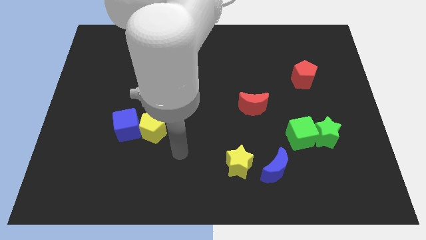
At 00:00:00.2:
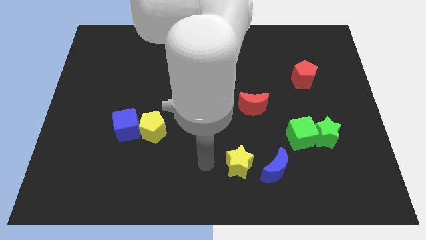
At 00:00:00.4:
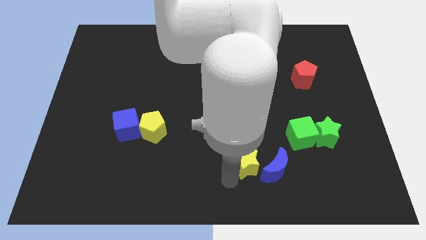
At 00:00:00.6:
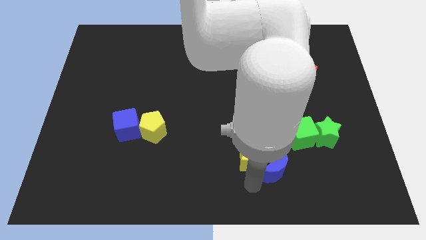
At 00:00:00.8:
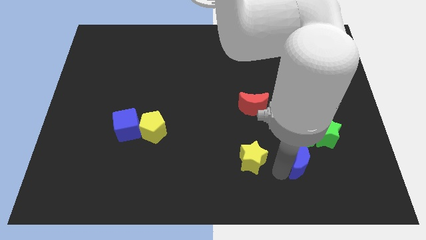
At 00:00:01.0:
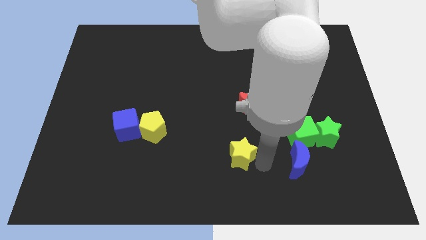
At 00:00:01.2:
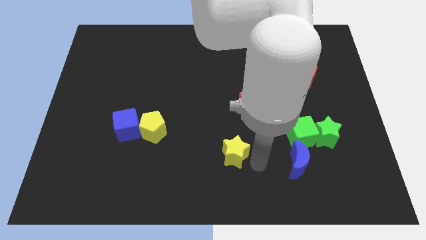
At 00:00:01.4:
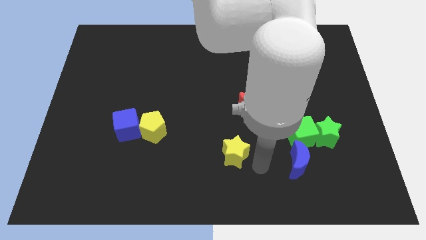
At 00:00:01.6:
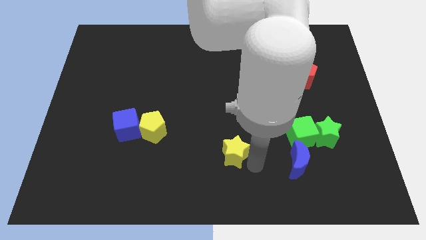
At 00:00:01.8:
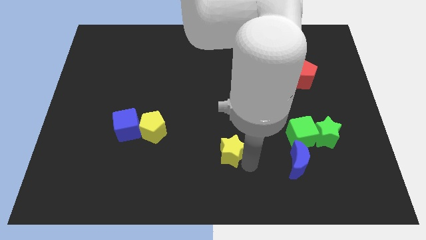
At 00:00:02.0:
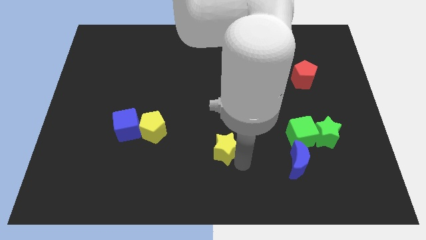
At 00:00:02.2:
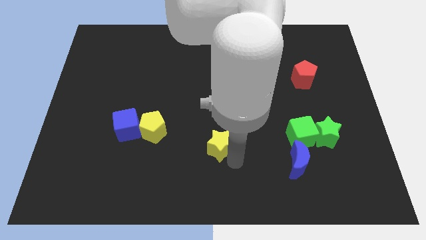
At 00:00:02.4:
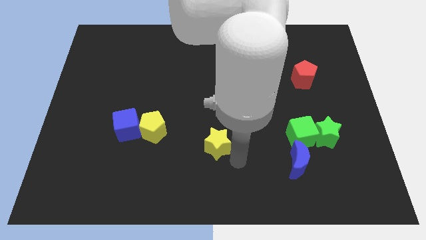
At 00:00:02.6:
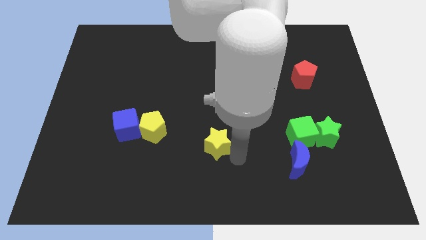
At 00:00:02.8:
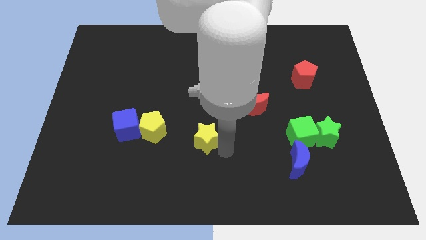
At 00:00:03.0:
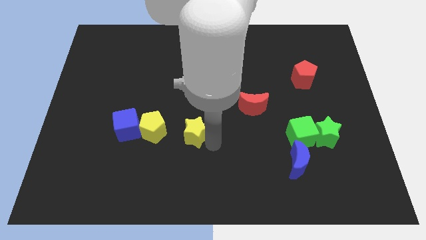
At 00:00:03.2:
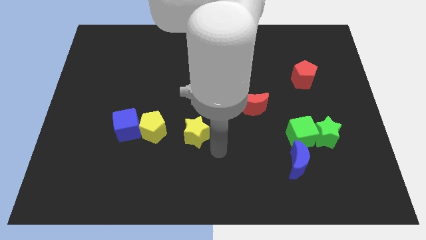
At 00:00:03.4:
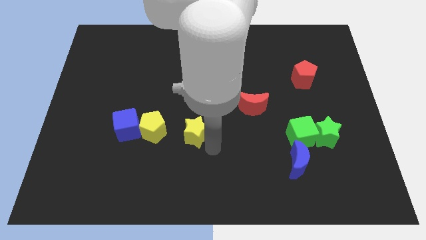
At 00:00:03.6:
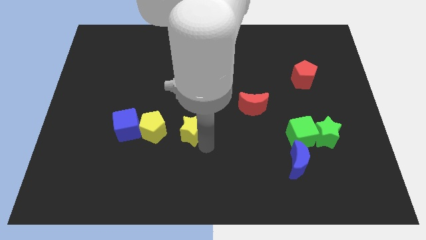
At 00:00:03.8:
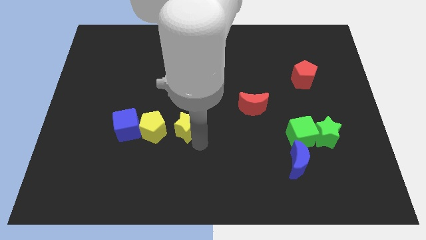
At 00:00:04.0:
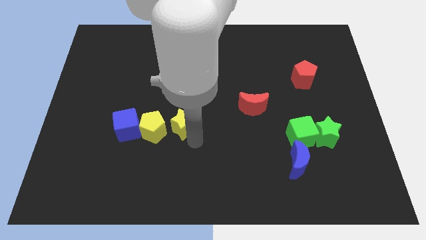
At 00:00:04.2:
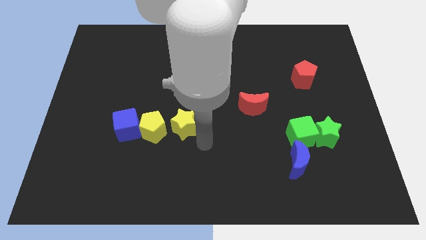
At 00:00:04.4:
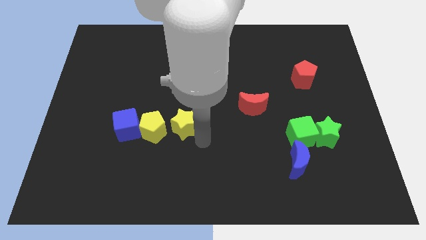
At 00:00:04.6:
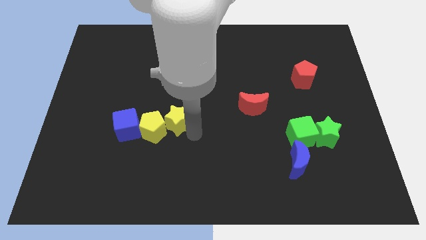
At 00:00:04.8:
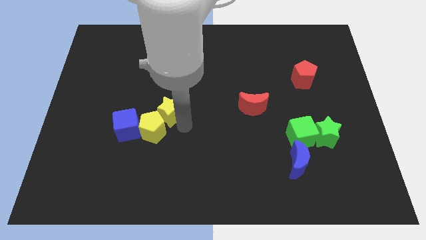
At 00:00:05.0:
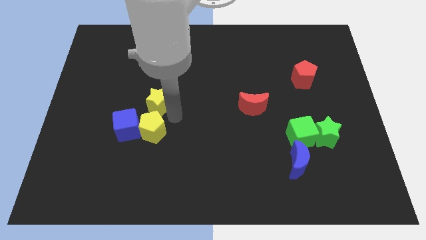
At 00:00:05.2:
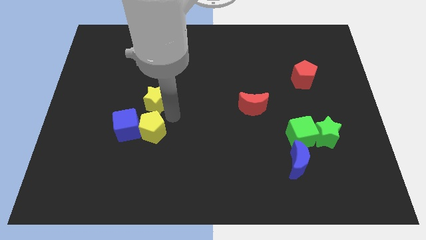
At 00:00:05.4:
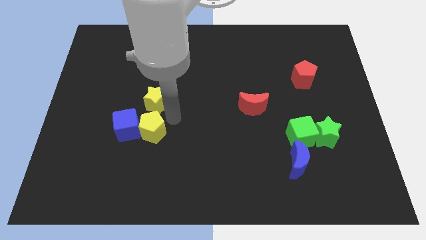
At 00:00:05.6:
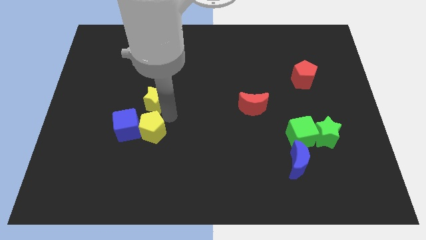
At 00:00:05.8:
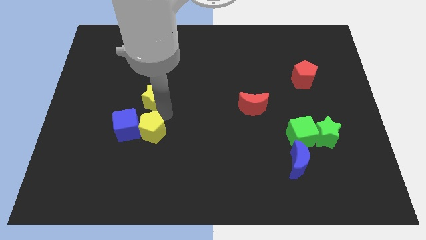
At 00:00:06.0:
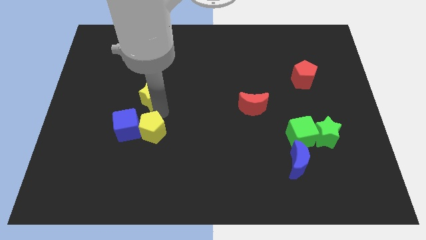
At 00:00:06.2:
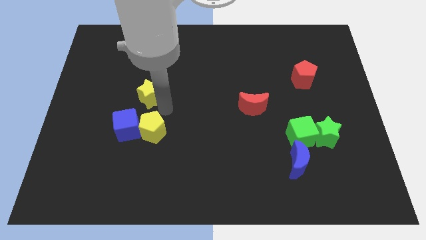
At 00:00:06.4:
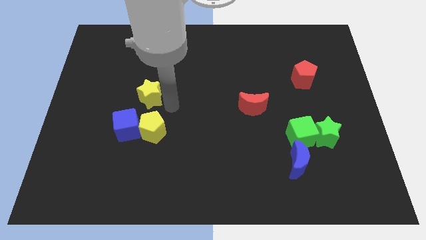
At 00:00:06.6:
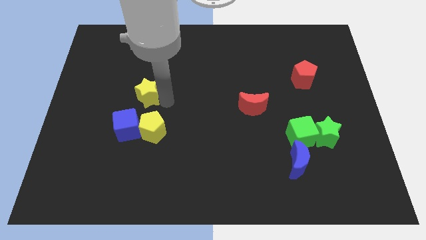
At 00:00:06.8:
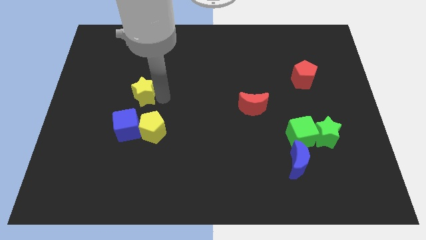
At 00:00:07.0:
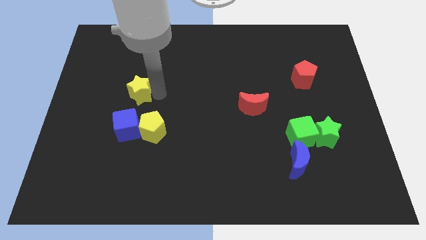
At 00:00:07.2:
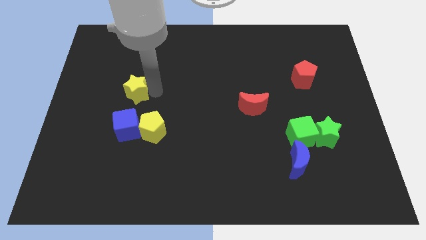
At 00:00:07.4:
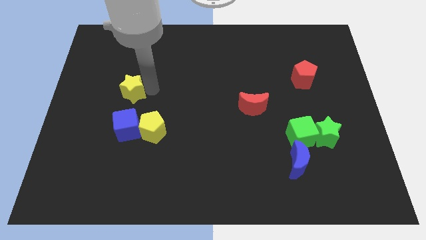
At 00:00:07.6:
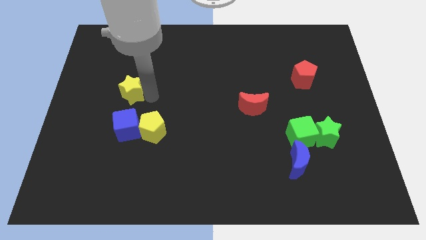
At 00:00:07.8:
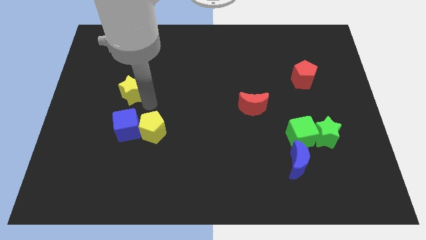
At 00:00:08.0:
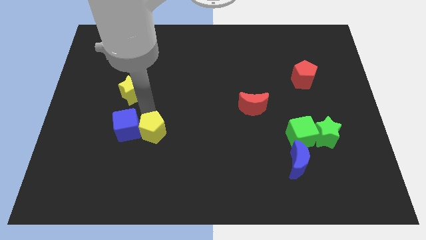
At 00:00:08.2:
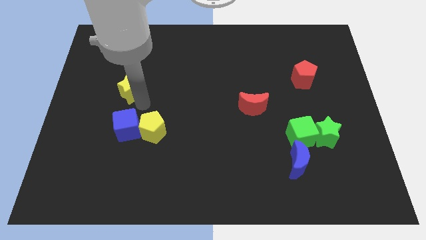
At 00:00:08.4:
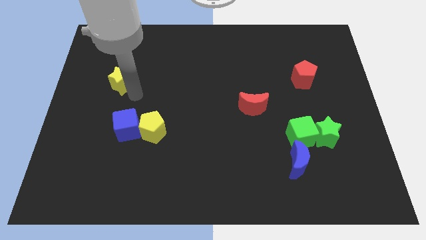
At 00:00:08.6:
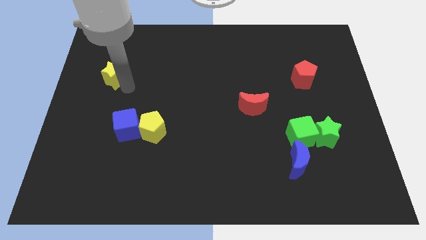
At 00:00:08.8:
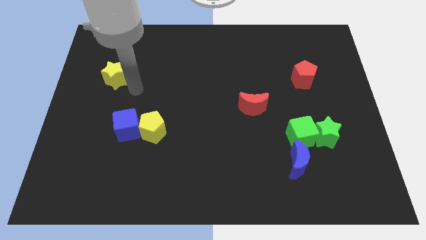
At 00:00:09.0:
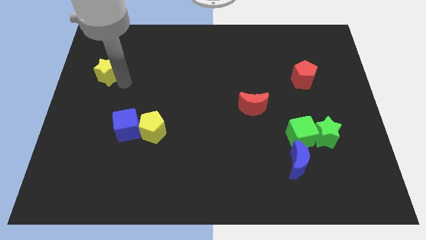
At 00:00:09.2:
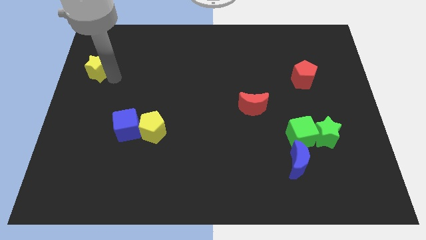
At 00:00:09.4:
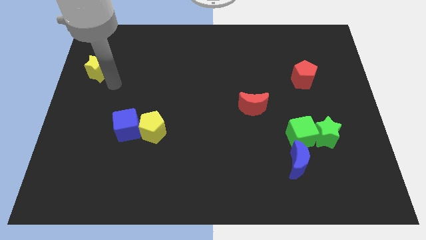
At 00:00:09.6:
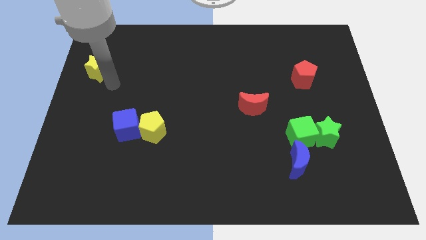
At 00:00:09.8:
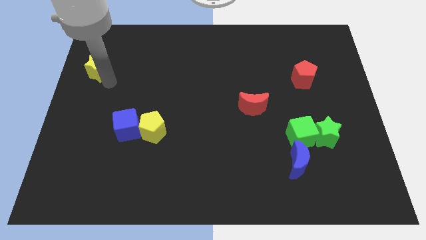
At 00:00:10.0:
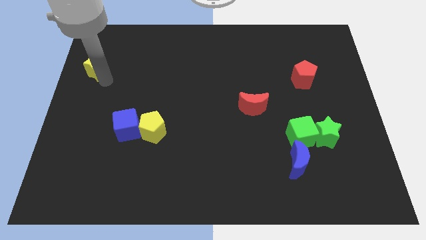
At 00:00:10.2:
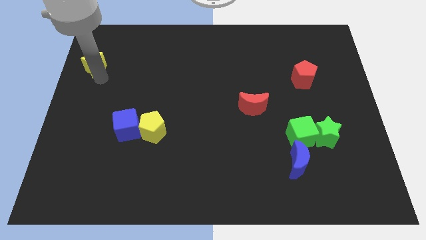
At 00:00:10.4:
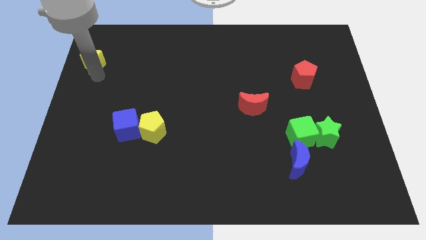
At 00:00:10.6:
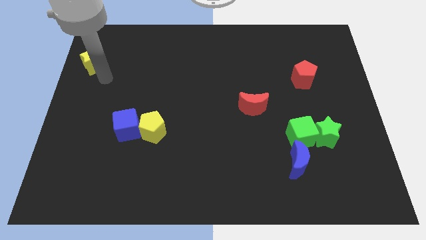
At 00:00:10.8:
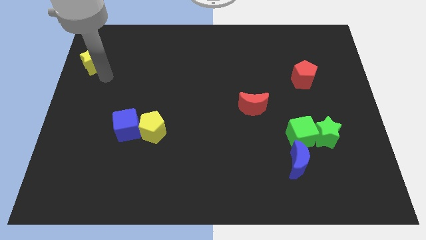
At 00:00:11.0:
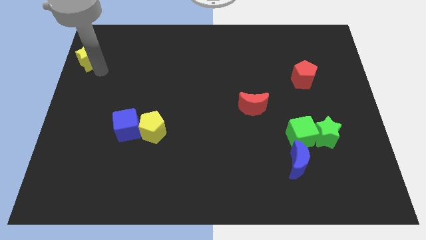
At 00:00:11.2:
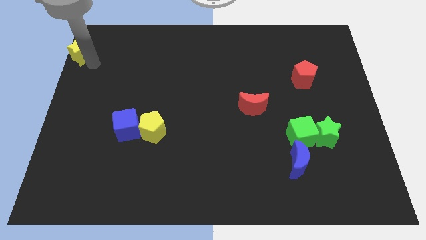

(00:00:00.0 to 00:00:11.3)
move the yellow star to the top left of the board

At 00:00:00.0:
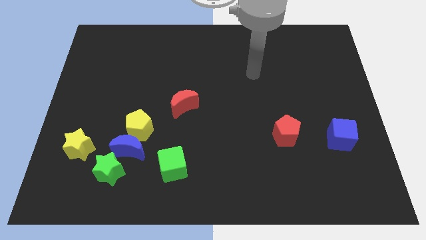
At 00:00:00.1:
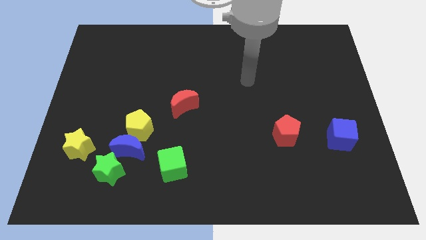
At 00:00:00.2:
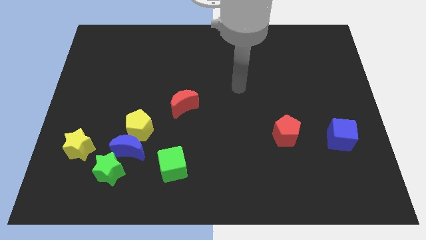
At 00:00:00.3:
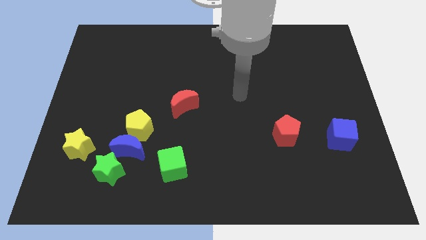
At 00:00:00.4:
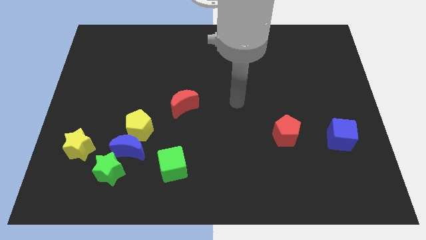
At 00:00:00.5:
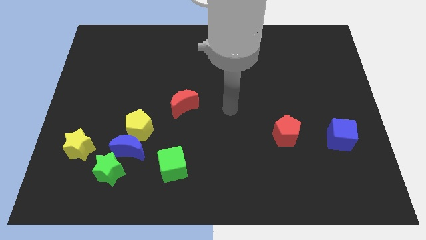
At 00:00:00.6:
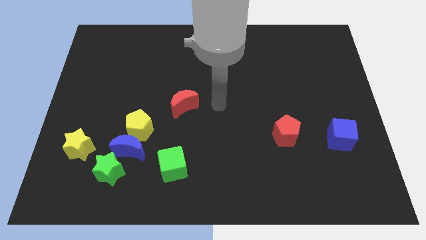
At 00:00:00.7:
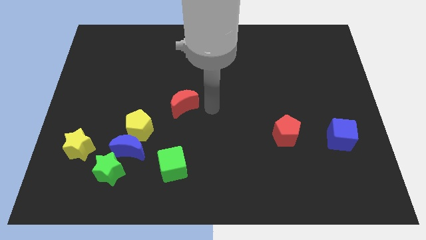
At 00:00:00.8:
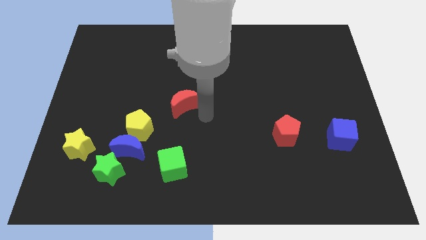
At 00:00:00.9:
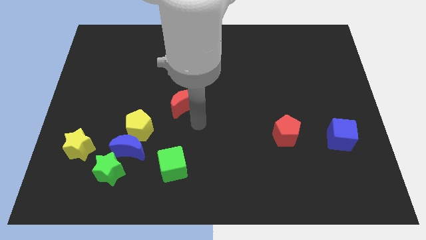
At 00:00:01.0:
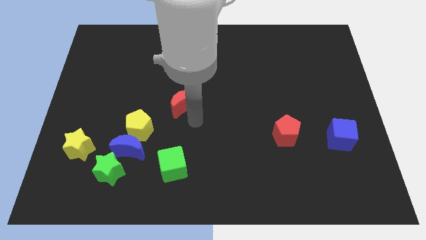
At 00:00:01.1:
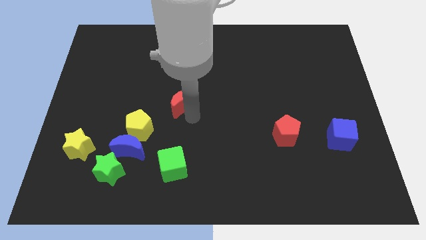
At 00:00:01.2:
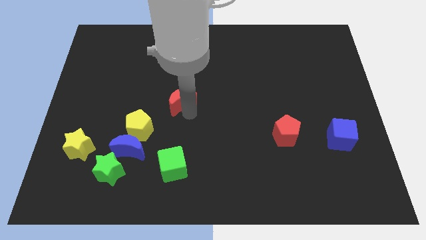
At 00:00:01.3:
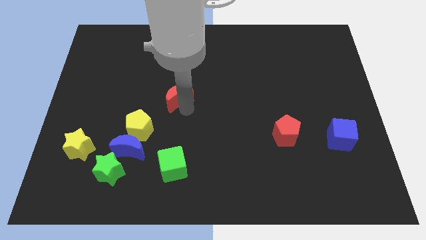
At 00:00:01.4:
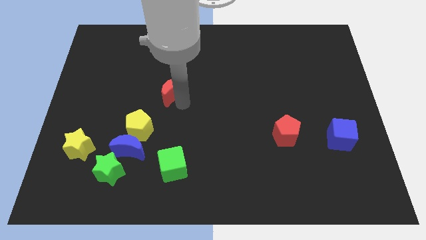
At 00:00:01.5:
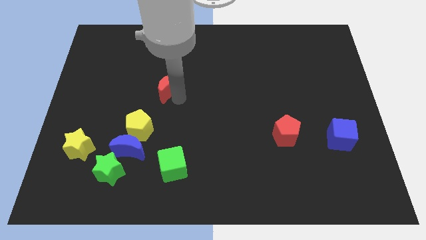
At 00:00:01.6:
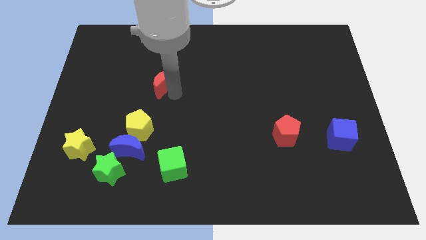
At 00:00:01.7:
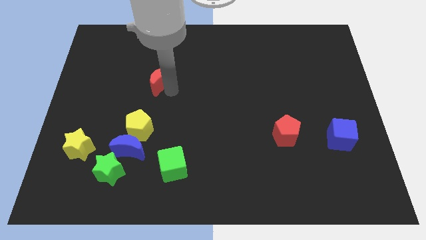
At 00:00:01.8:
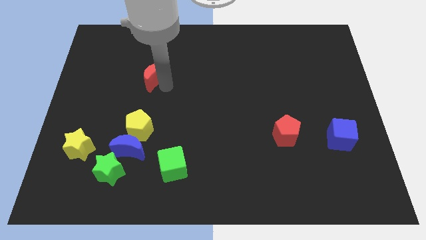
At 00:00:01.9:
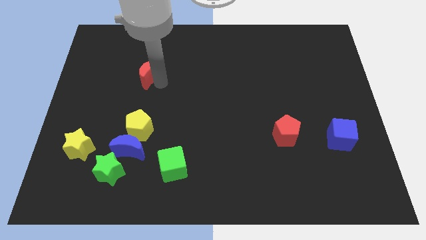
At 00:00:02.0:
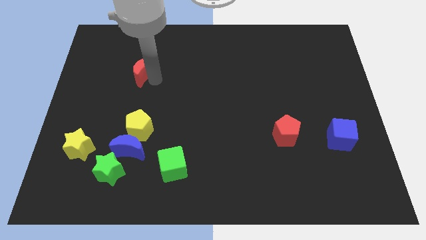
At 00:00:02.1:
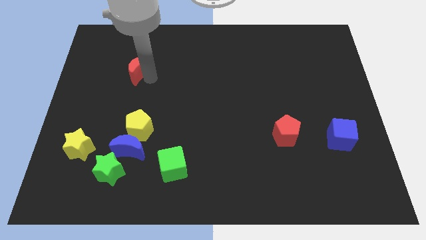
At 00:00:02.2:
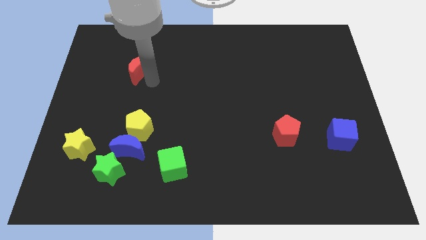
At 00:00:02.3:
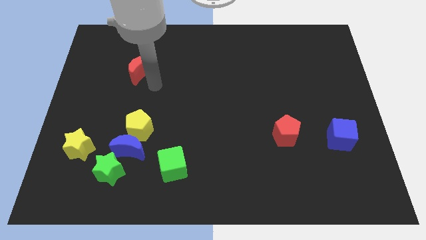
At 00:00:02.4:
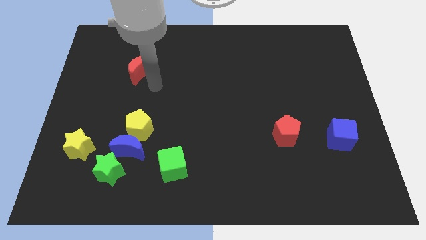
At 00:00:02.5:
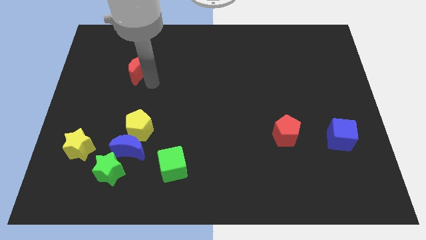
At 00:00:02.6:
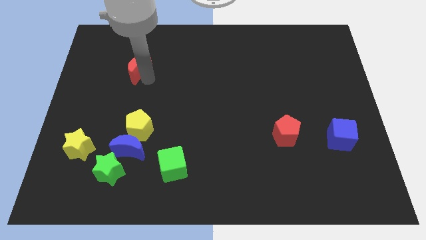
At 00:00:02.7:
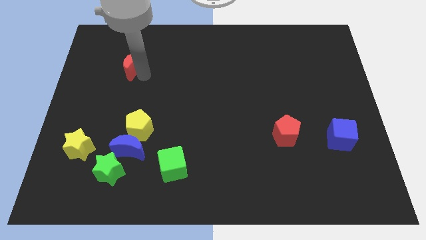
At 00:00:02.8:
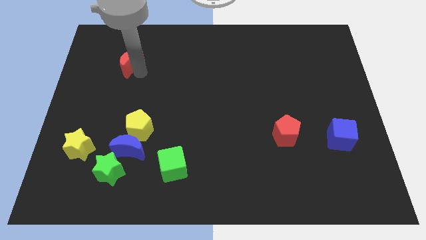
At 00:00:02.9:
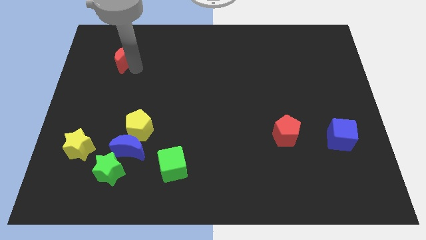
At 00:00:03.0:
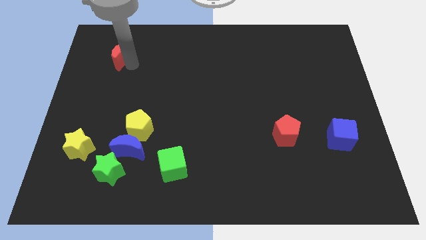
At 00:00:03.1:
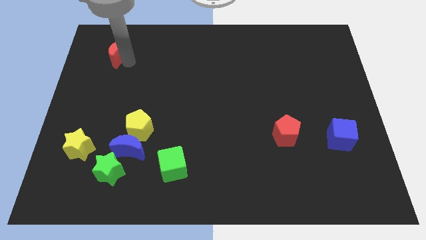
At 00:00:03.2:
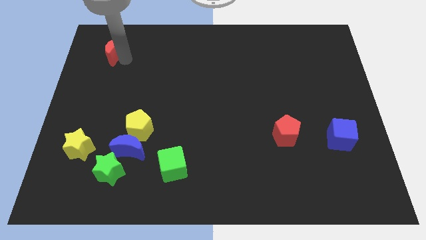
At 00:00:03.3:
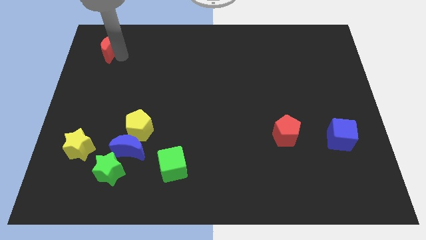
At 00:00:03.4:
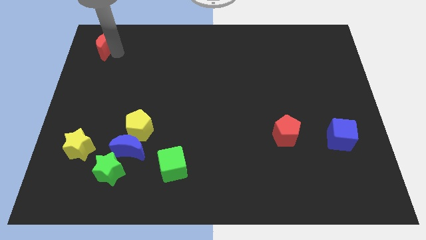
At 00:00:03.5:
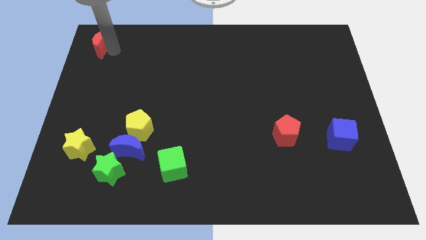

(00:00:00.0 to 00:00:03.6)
move the red moon to the top left
